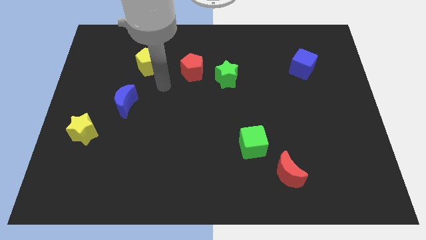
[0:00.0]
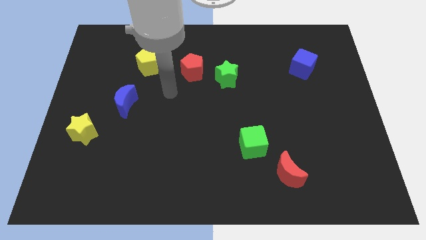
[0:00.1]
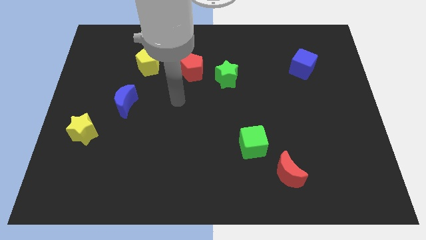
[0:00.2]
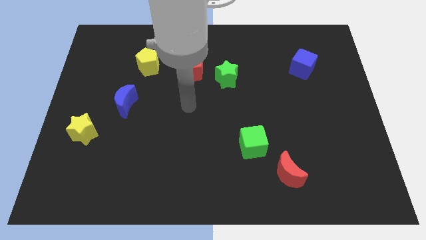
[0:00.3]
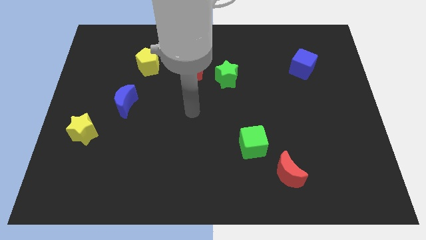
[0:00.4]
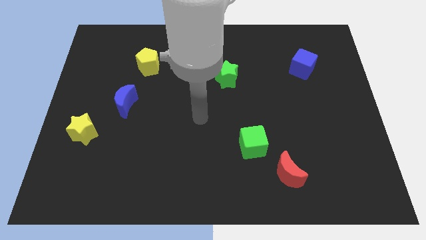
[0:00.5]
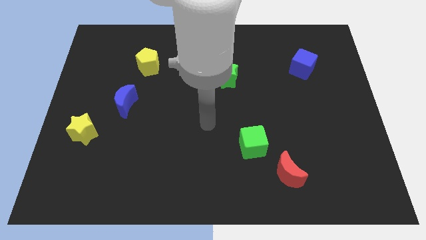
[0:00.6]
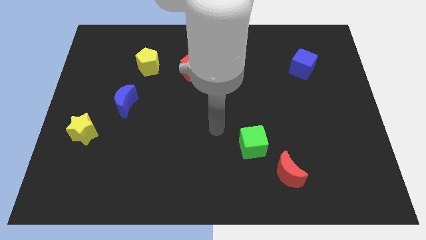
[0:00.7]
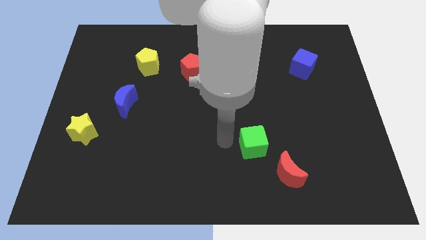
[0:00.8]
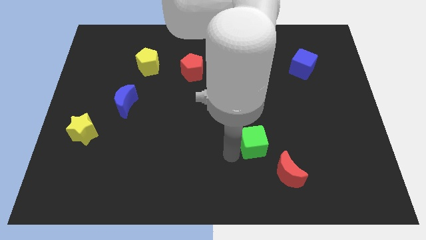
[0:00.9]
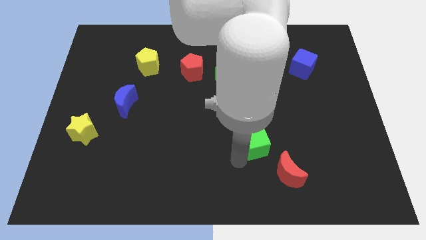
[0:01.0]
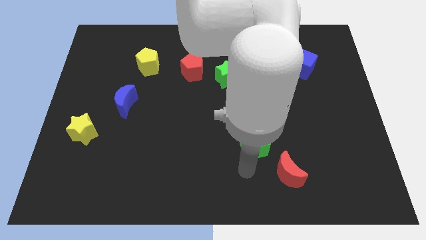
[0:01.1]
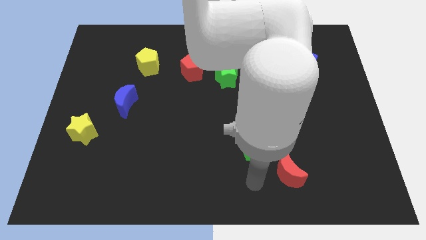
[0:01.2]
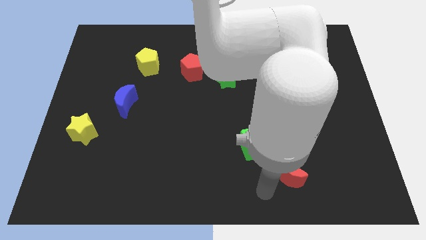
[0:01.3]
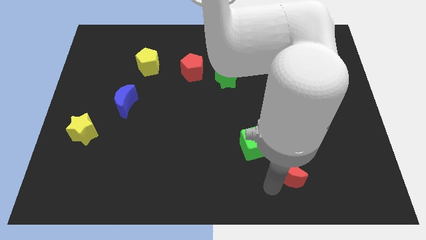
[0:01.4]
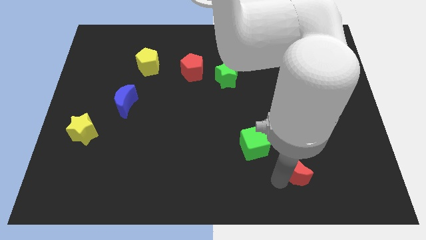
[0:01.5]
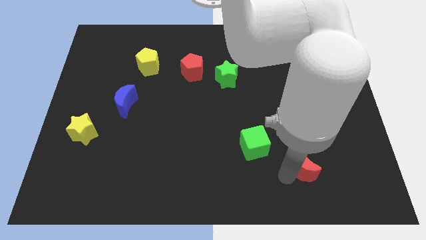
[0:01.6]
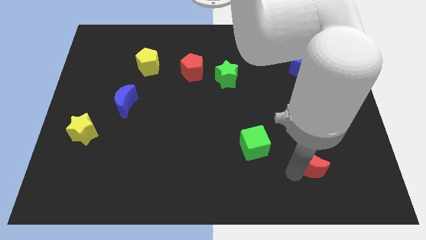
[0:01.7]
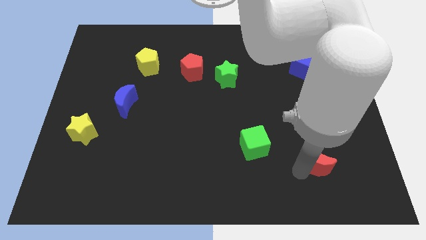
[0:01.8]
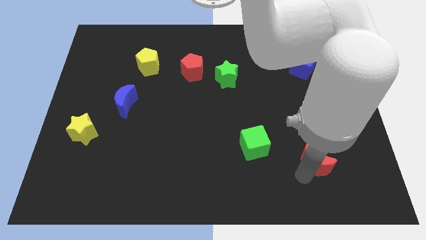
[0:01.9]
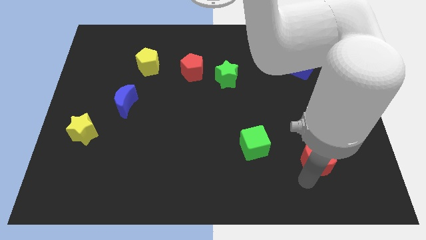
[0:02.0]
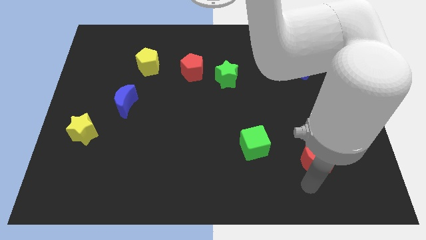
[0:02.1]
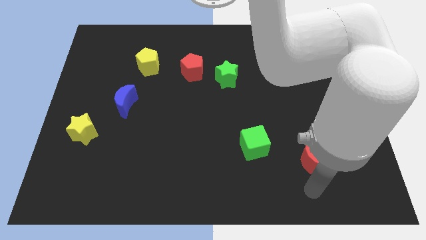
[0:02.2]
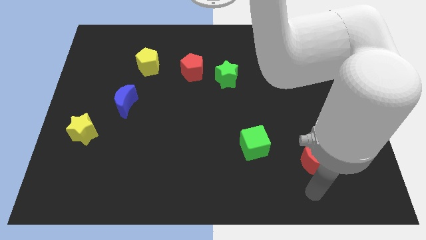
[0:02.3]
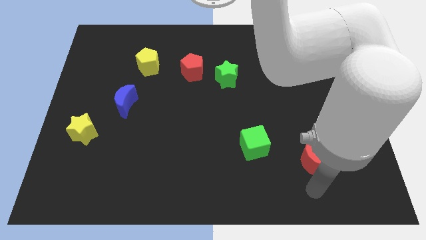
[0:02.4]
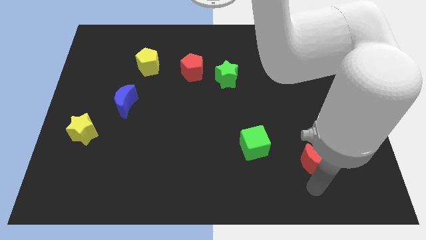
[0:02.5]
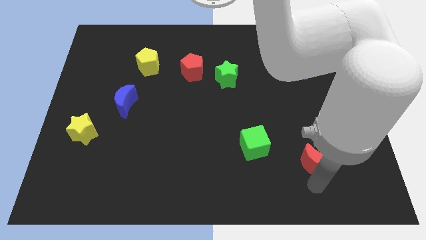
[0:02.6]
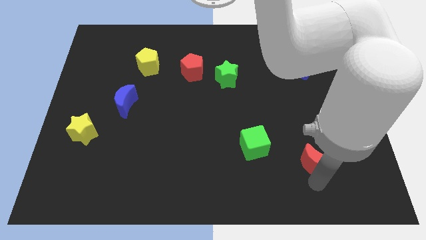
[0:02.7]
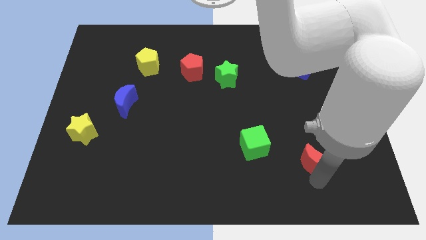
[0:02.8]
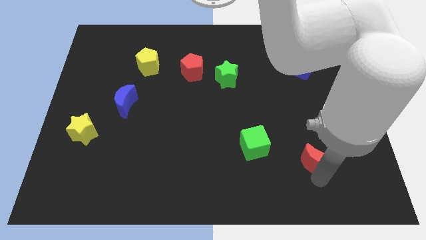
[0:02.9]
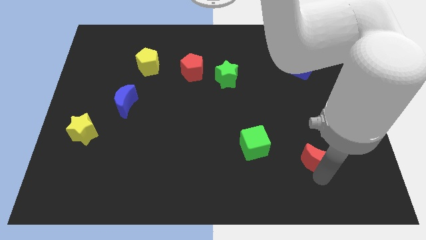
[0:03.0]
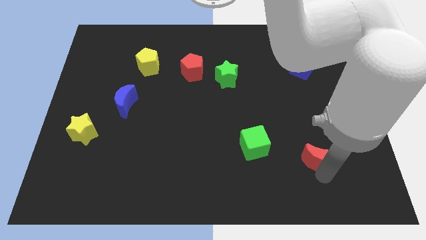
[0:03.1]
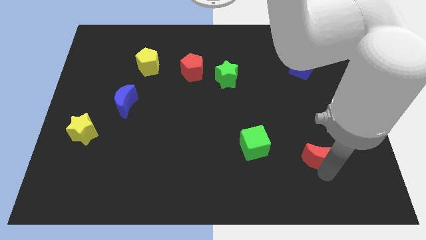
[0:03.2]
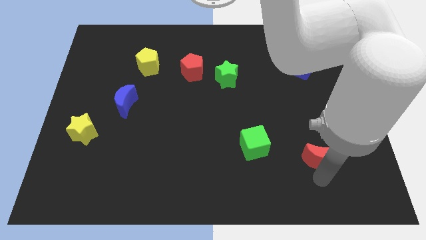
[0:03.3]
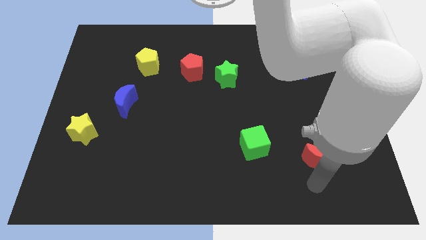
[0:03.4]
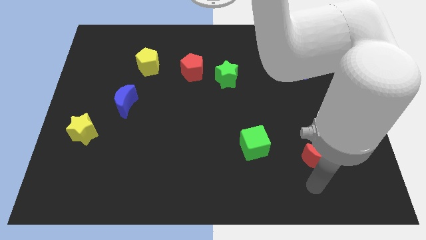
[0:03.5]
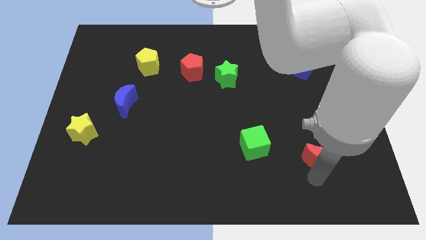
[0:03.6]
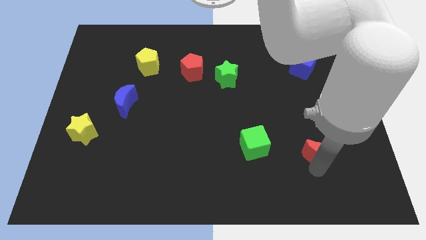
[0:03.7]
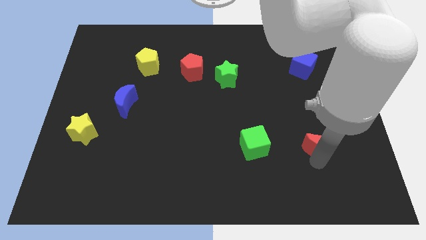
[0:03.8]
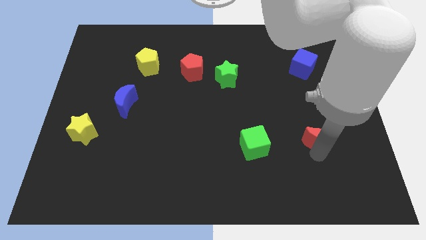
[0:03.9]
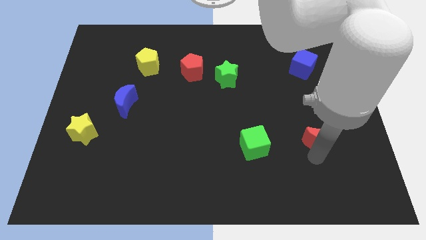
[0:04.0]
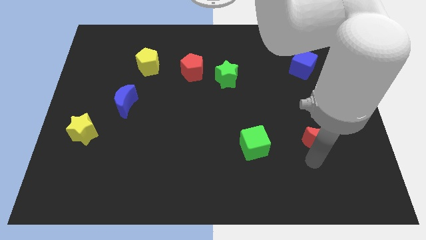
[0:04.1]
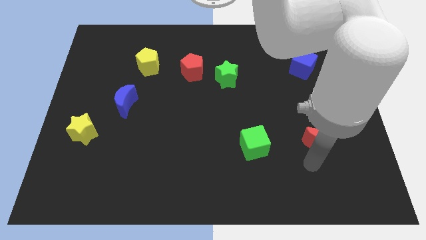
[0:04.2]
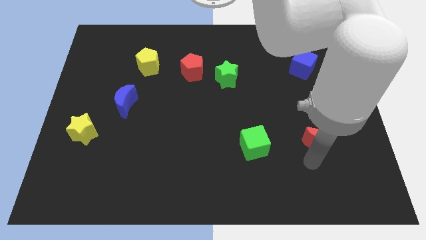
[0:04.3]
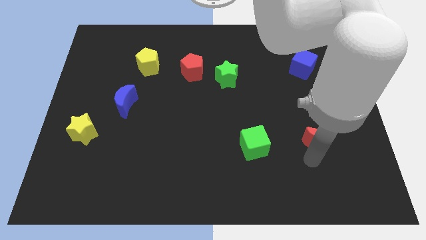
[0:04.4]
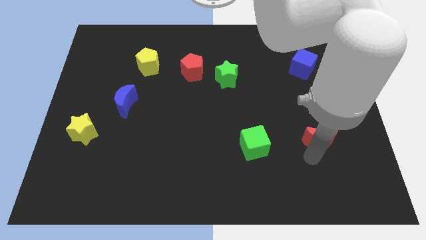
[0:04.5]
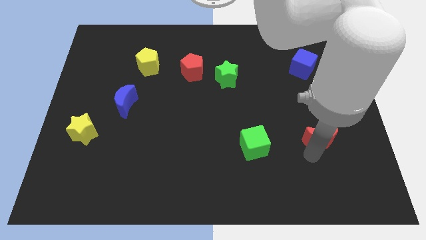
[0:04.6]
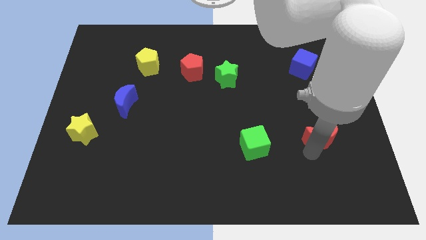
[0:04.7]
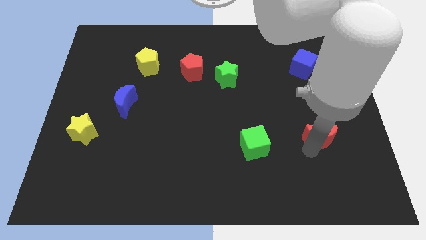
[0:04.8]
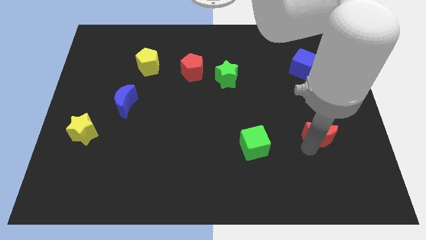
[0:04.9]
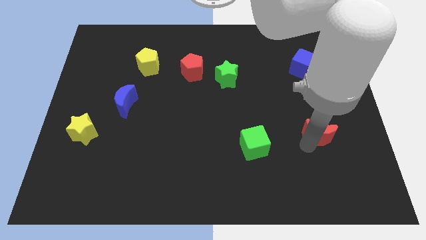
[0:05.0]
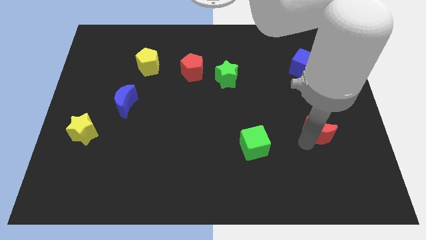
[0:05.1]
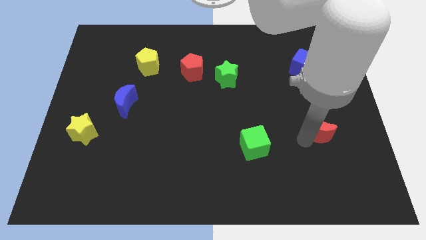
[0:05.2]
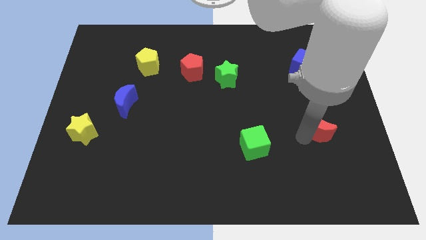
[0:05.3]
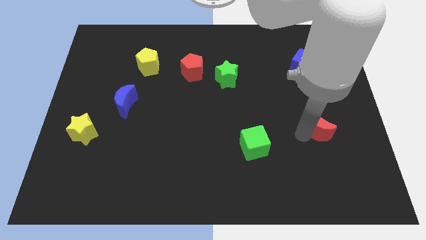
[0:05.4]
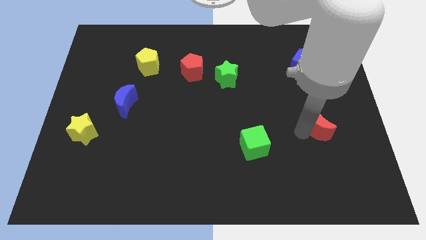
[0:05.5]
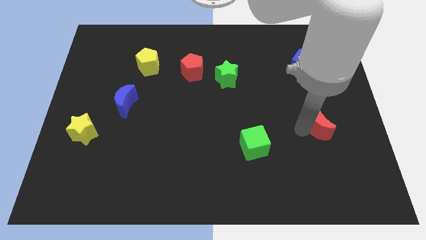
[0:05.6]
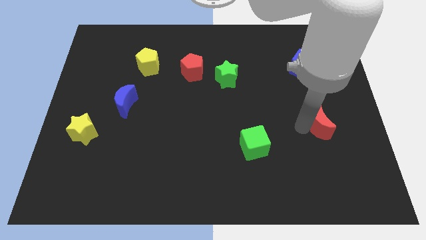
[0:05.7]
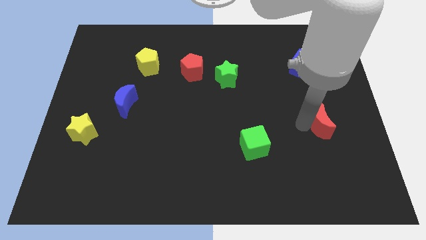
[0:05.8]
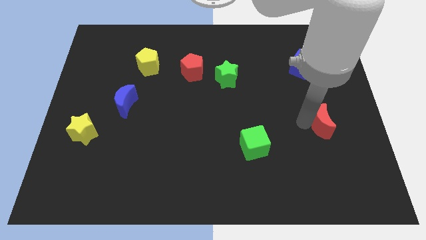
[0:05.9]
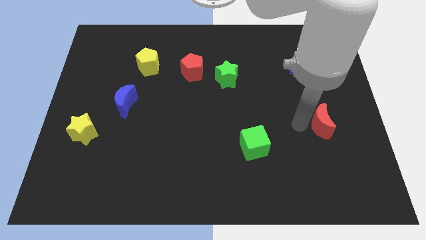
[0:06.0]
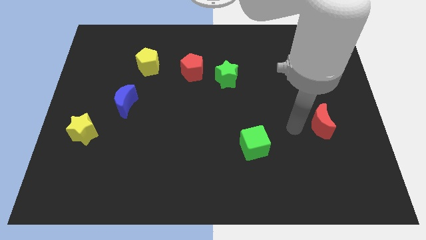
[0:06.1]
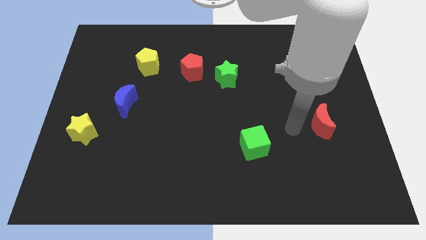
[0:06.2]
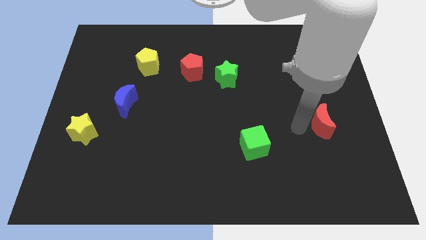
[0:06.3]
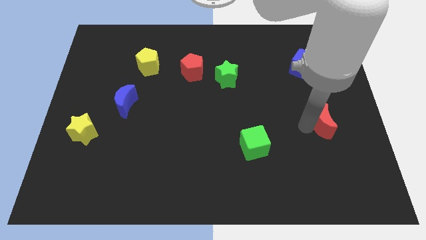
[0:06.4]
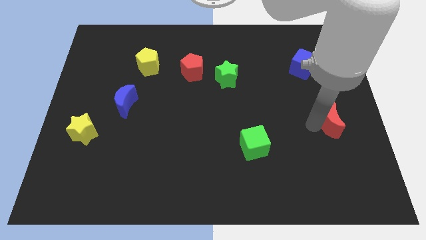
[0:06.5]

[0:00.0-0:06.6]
push the red moon to the right side of the board
